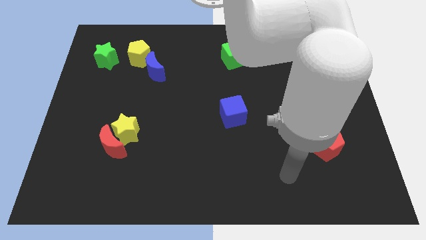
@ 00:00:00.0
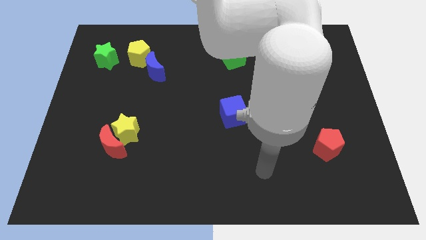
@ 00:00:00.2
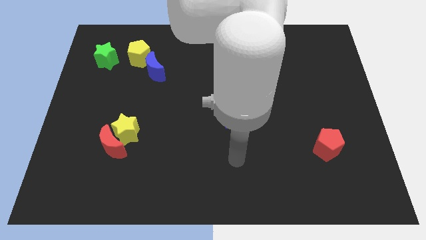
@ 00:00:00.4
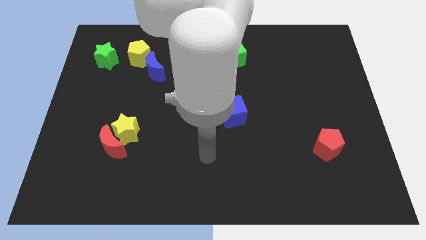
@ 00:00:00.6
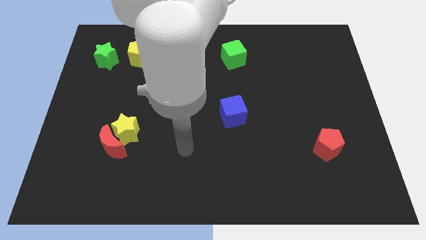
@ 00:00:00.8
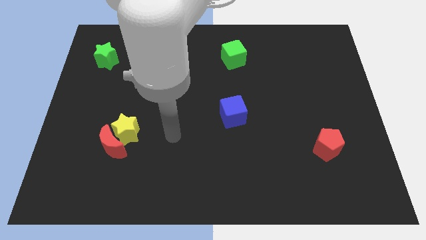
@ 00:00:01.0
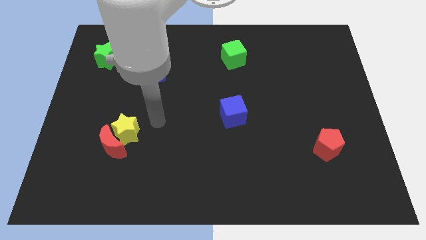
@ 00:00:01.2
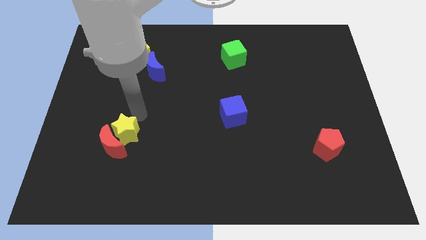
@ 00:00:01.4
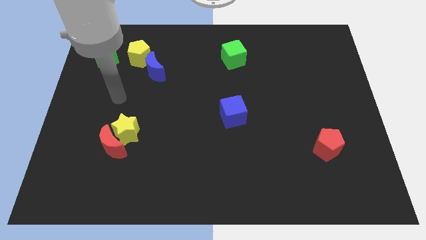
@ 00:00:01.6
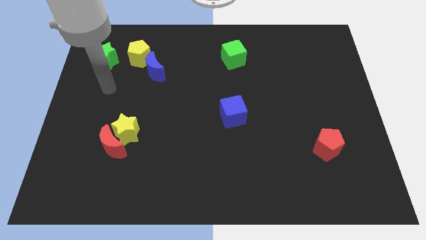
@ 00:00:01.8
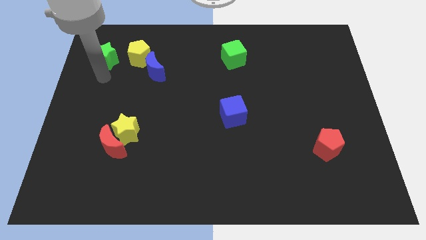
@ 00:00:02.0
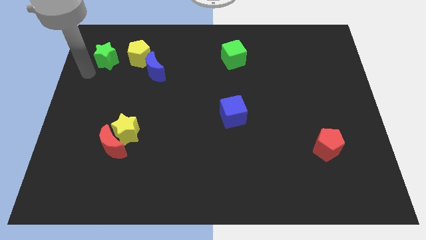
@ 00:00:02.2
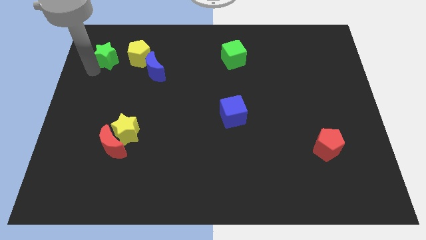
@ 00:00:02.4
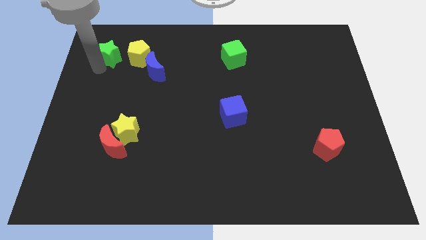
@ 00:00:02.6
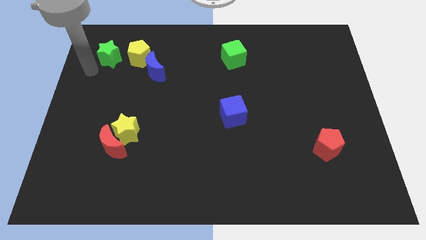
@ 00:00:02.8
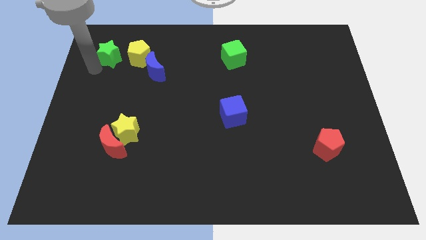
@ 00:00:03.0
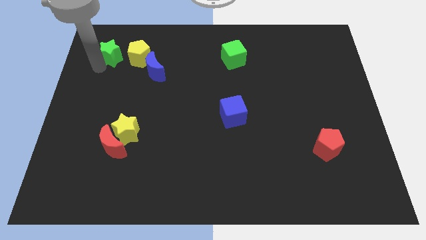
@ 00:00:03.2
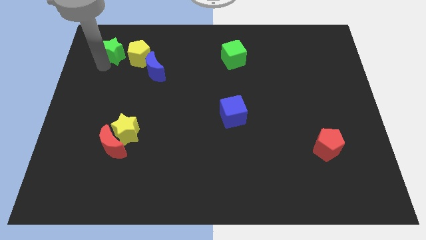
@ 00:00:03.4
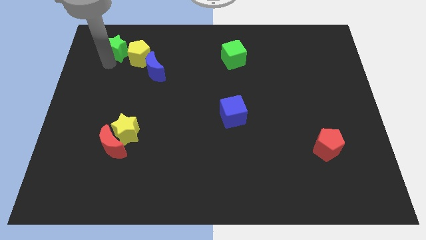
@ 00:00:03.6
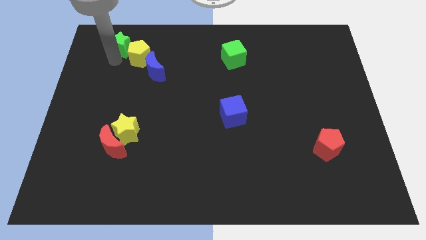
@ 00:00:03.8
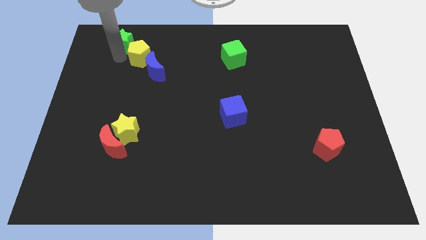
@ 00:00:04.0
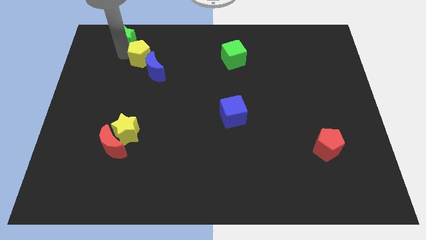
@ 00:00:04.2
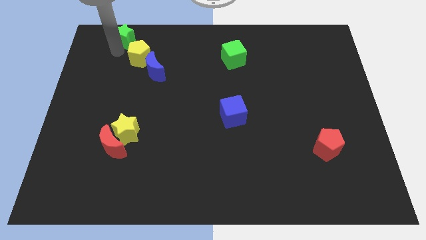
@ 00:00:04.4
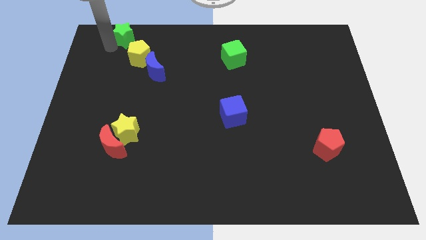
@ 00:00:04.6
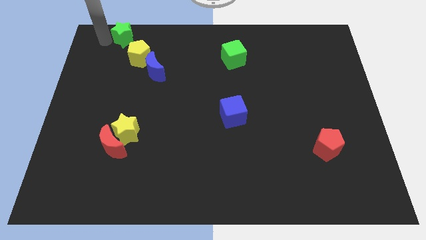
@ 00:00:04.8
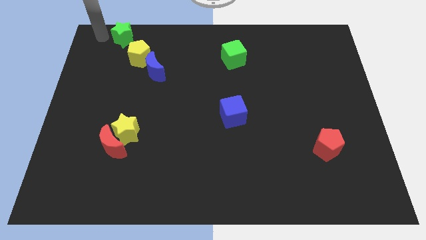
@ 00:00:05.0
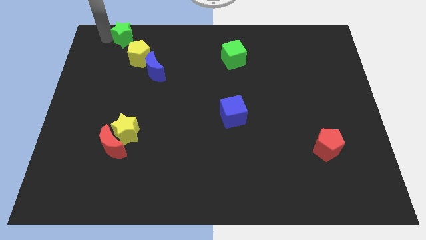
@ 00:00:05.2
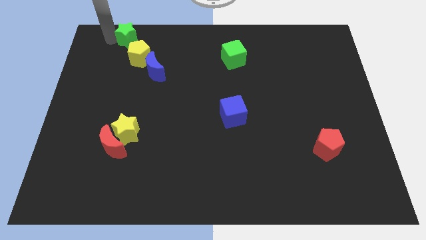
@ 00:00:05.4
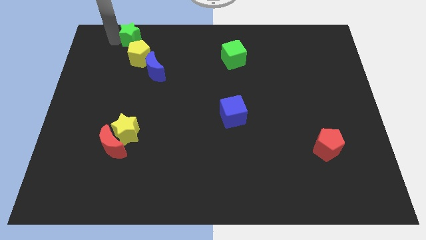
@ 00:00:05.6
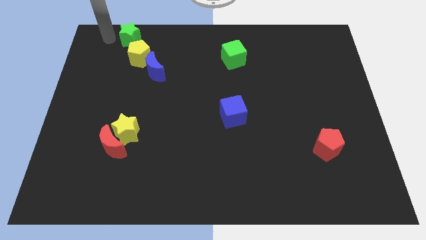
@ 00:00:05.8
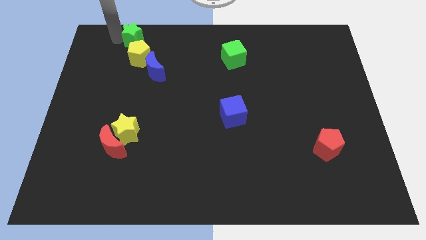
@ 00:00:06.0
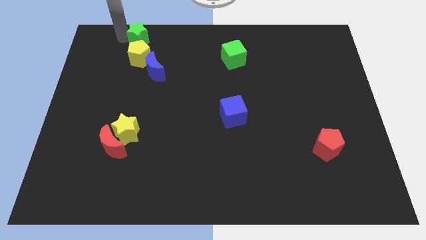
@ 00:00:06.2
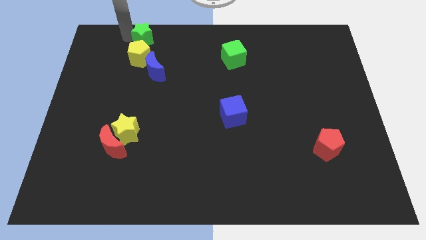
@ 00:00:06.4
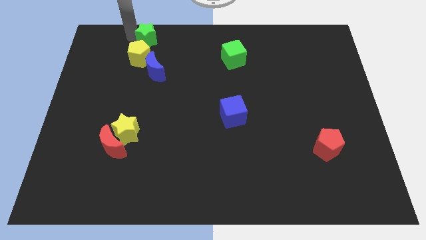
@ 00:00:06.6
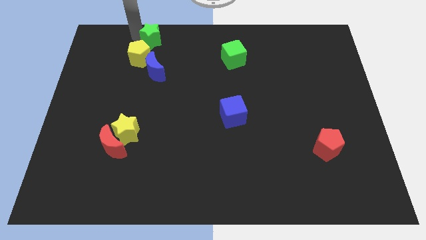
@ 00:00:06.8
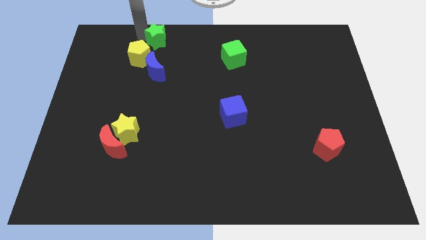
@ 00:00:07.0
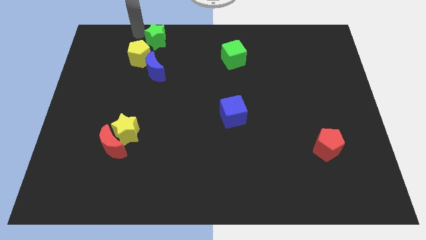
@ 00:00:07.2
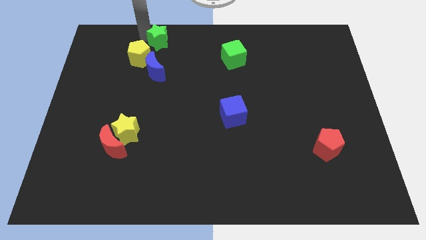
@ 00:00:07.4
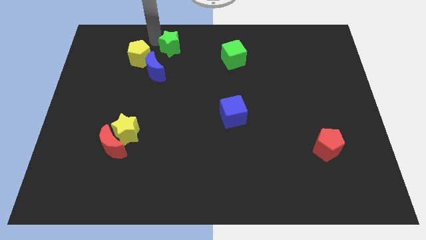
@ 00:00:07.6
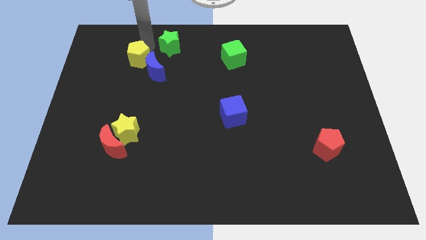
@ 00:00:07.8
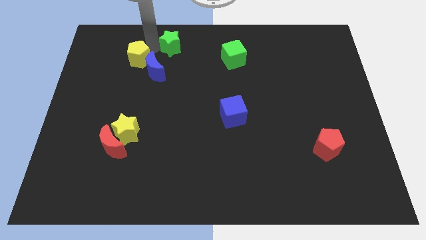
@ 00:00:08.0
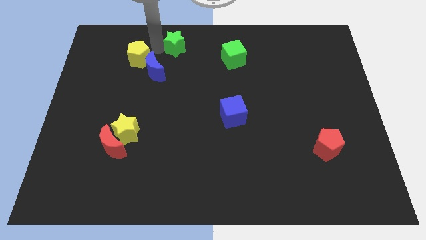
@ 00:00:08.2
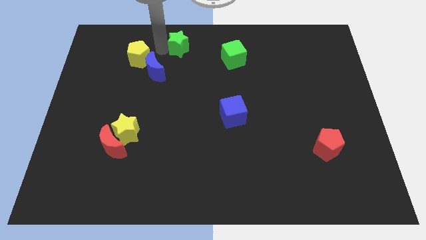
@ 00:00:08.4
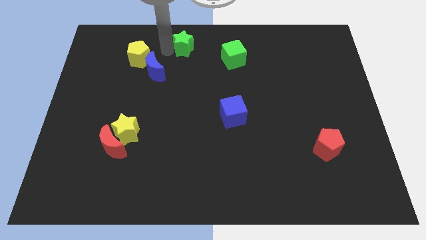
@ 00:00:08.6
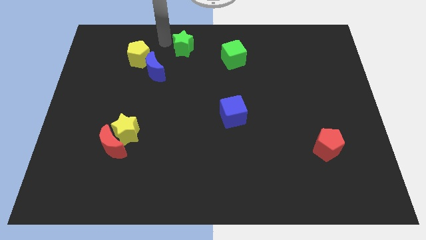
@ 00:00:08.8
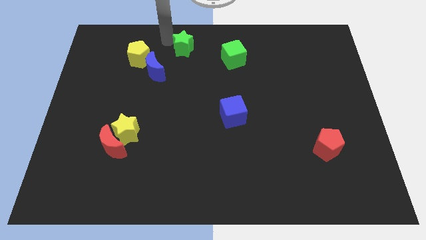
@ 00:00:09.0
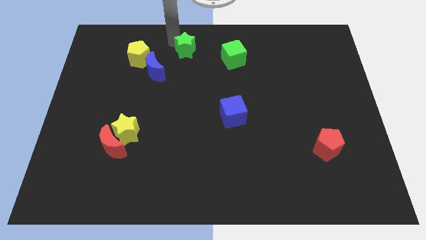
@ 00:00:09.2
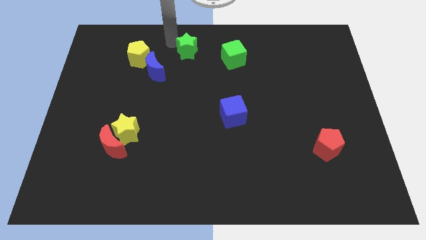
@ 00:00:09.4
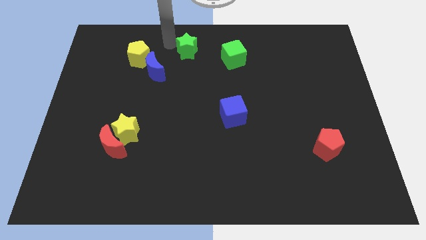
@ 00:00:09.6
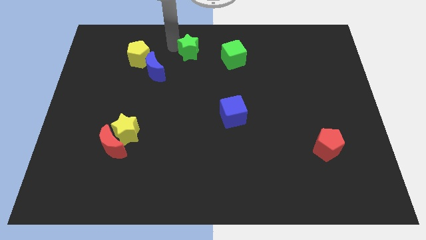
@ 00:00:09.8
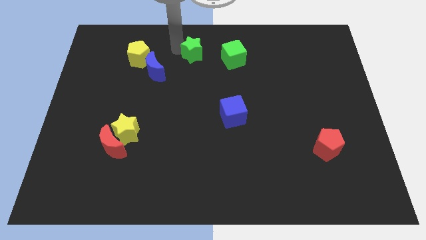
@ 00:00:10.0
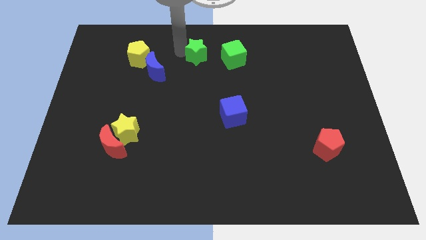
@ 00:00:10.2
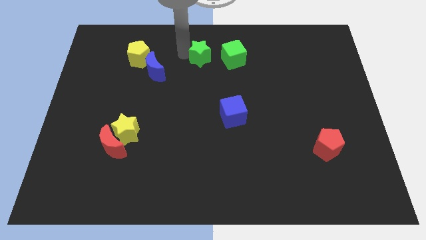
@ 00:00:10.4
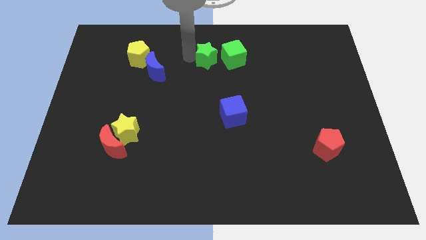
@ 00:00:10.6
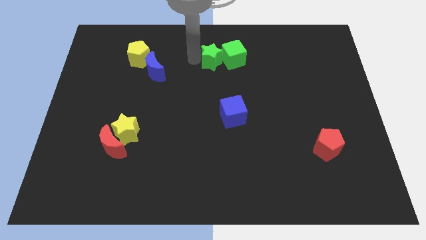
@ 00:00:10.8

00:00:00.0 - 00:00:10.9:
push the green star next to the green cube

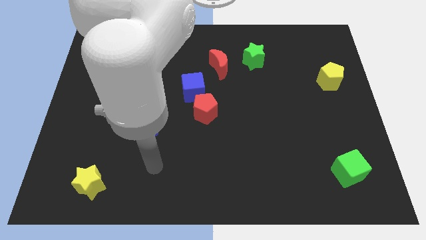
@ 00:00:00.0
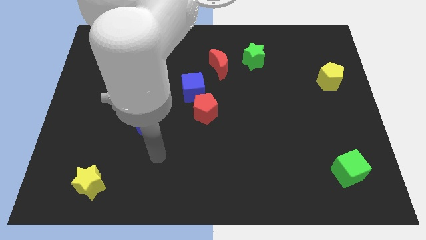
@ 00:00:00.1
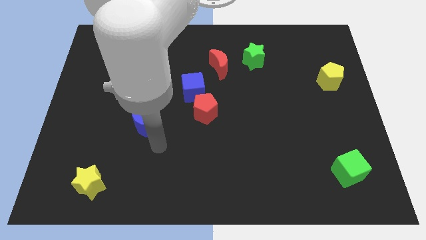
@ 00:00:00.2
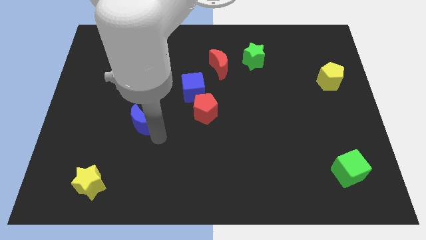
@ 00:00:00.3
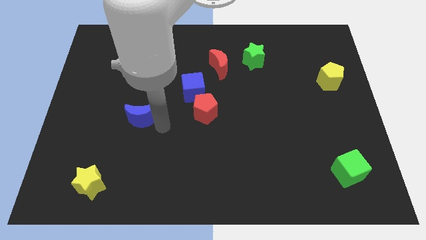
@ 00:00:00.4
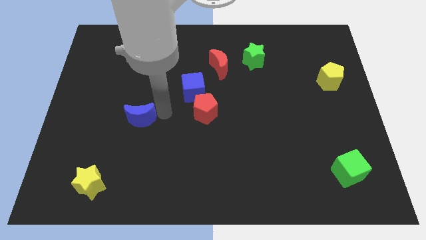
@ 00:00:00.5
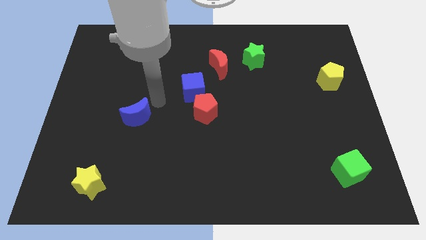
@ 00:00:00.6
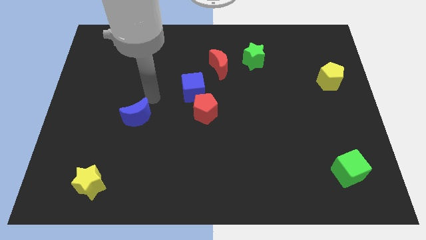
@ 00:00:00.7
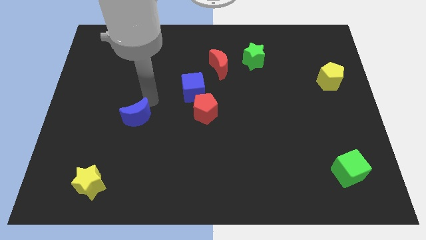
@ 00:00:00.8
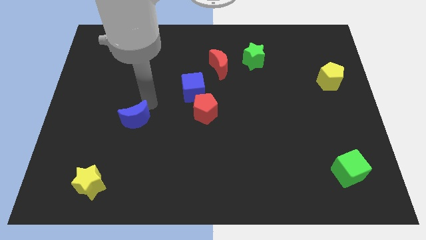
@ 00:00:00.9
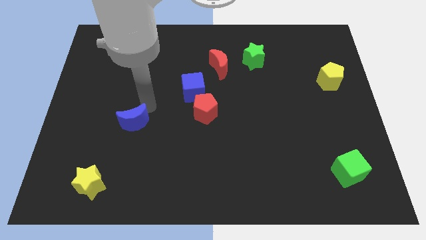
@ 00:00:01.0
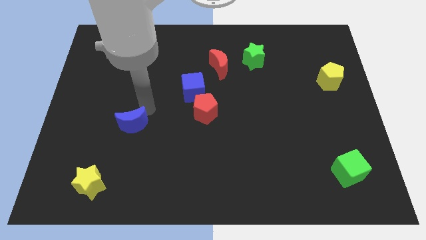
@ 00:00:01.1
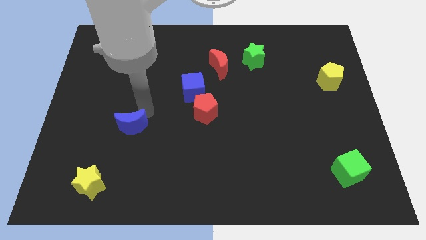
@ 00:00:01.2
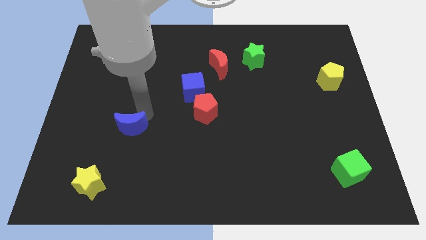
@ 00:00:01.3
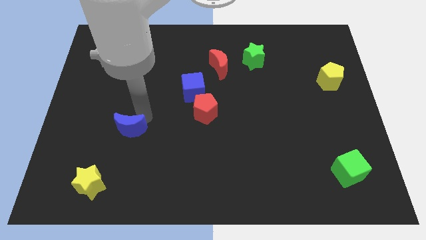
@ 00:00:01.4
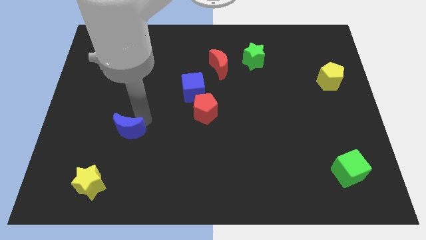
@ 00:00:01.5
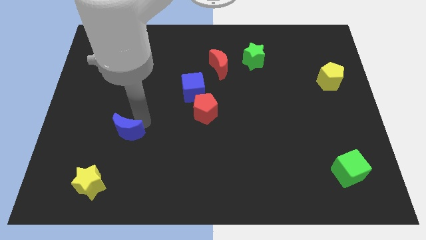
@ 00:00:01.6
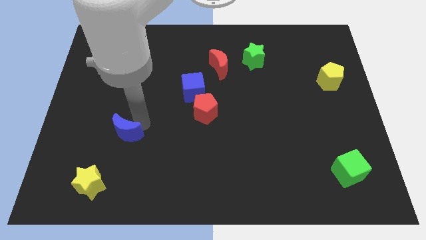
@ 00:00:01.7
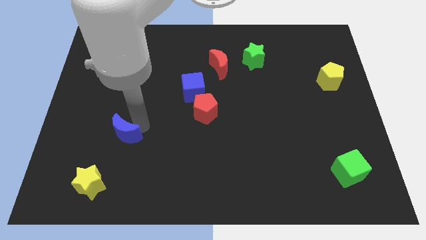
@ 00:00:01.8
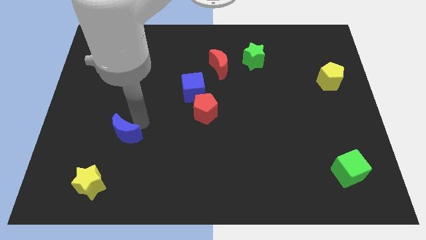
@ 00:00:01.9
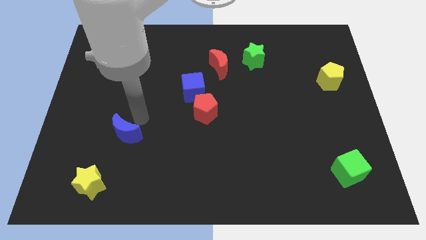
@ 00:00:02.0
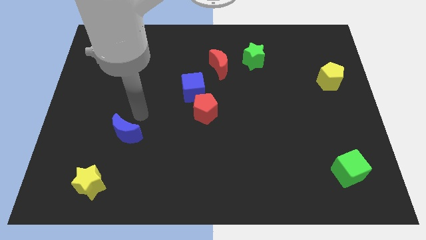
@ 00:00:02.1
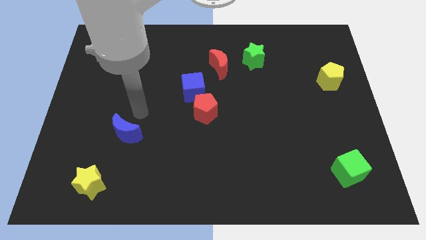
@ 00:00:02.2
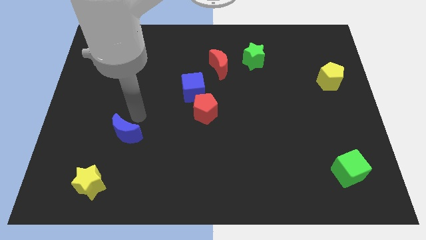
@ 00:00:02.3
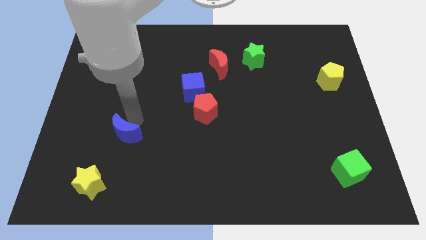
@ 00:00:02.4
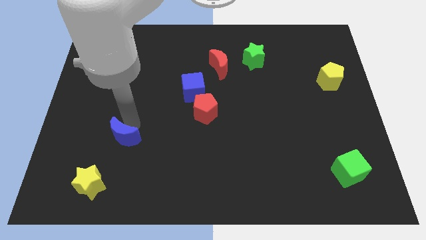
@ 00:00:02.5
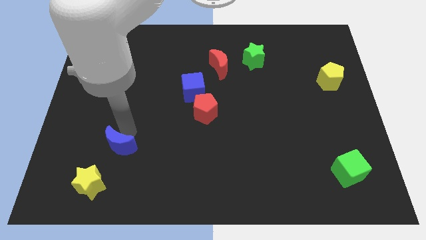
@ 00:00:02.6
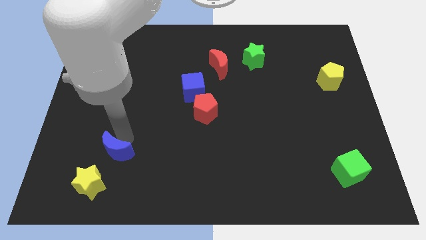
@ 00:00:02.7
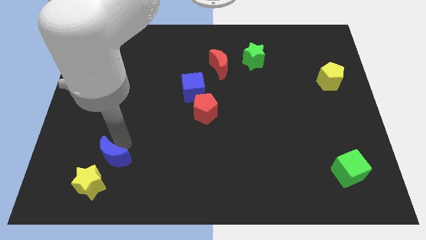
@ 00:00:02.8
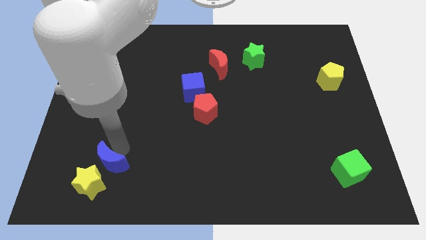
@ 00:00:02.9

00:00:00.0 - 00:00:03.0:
move the blue moon close to the yellow star
